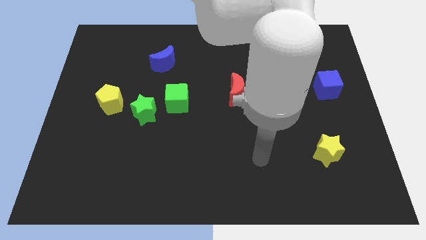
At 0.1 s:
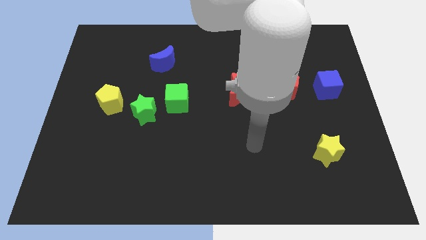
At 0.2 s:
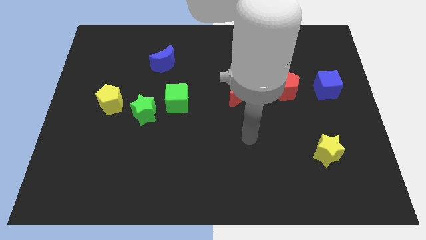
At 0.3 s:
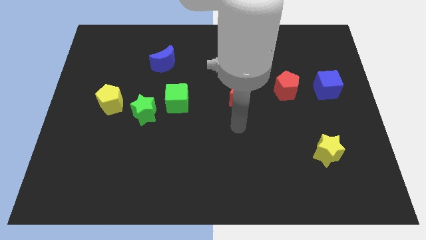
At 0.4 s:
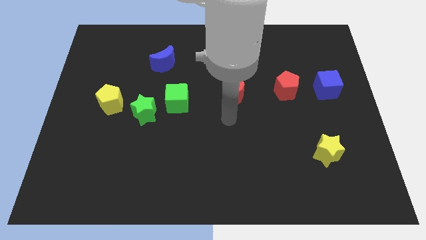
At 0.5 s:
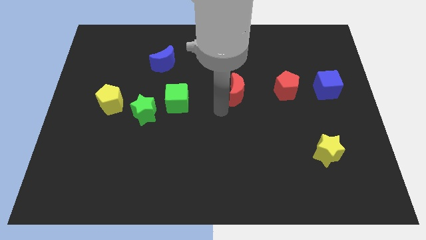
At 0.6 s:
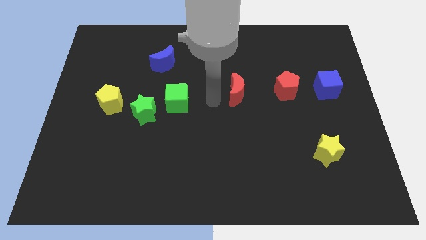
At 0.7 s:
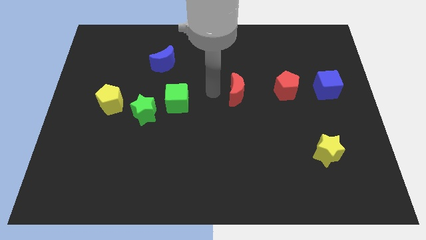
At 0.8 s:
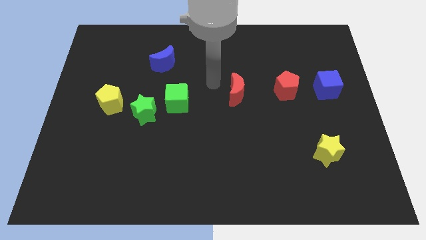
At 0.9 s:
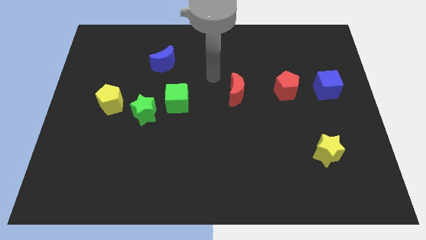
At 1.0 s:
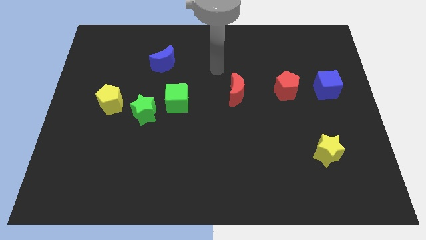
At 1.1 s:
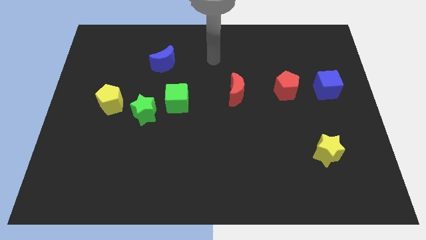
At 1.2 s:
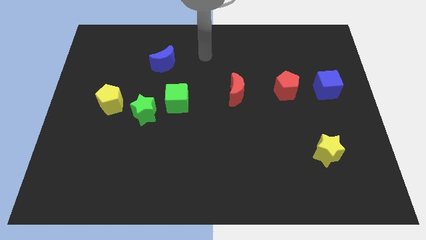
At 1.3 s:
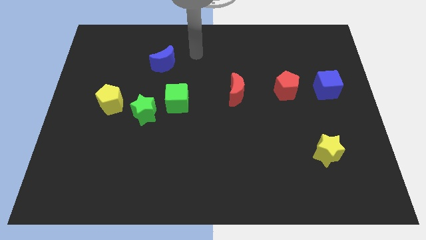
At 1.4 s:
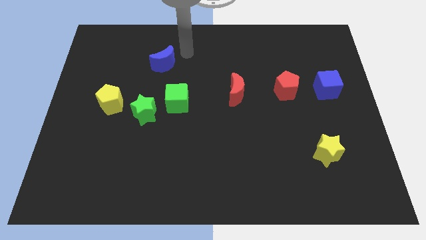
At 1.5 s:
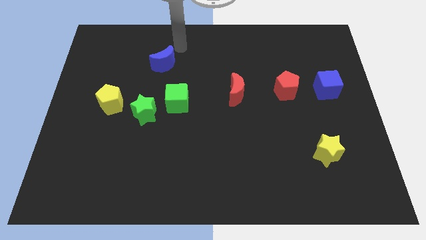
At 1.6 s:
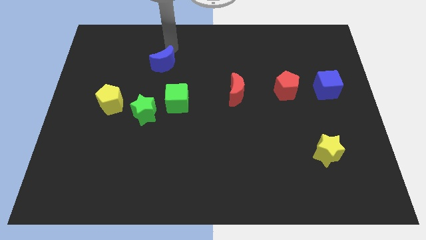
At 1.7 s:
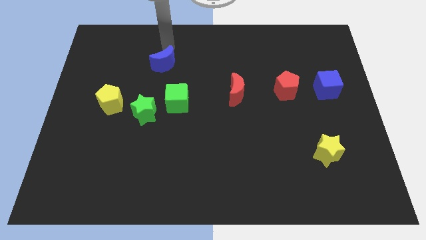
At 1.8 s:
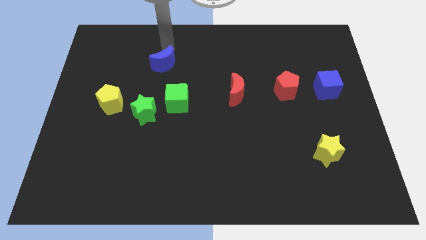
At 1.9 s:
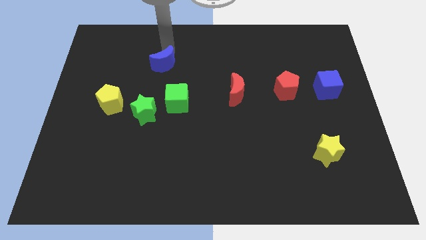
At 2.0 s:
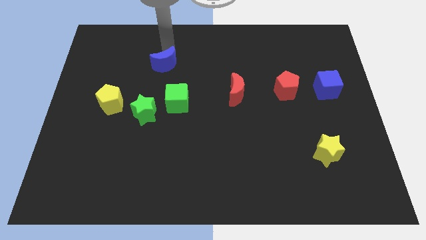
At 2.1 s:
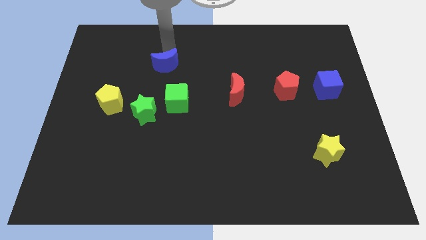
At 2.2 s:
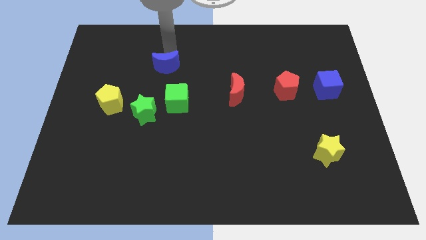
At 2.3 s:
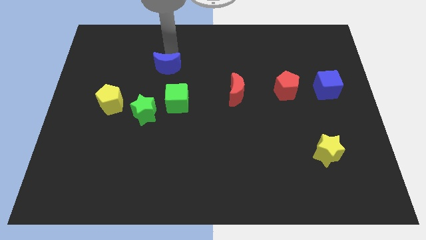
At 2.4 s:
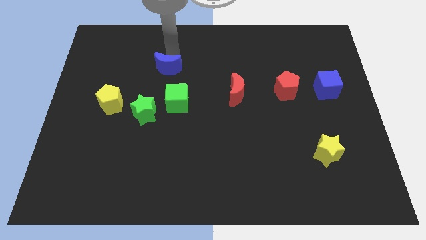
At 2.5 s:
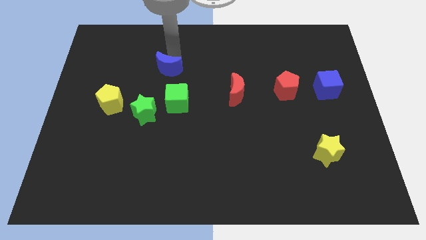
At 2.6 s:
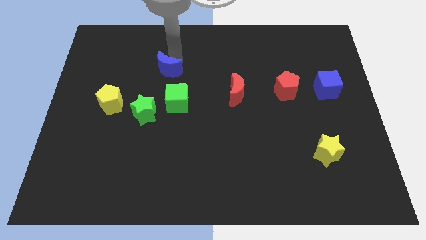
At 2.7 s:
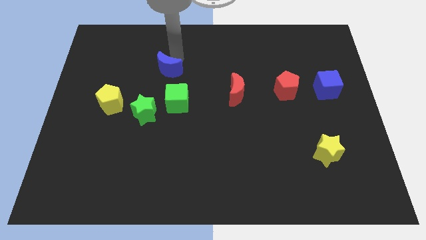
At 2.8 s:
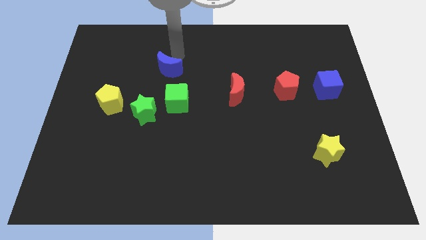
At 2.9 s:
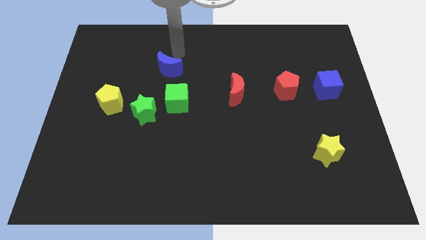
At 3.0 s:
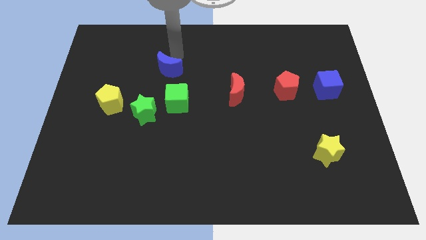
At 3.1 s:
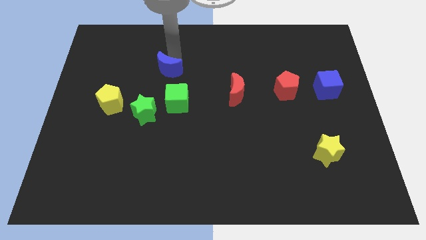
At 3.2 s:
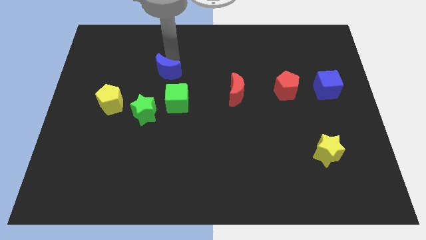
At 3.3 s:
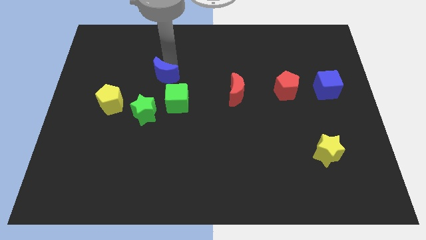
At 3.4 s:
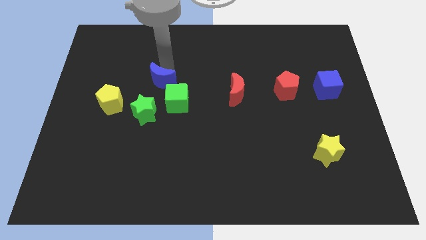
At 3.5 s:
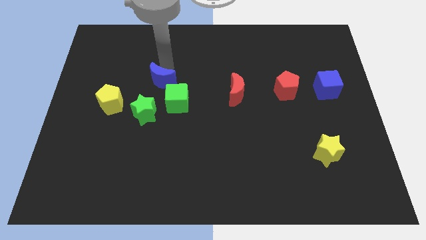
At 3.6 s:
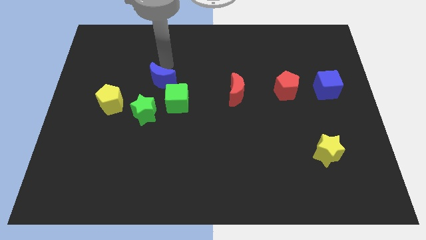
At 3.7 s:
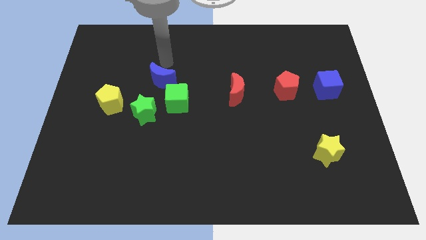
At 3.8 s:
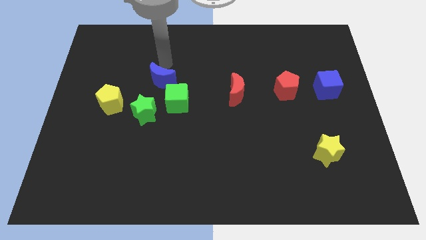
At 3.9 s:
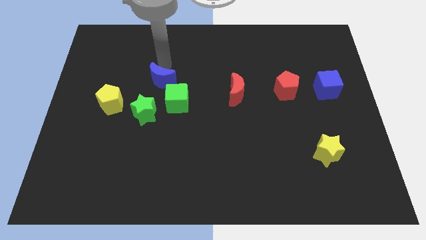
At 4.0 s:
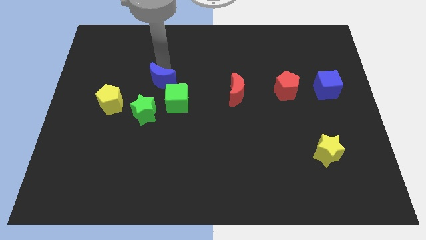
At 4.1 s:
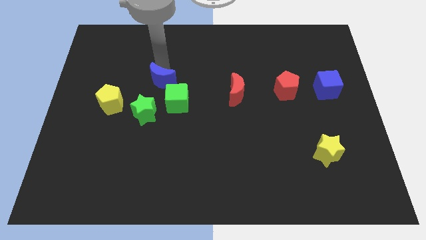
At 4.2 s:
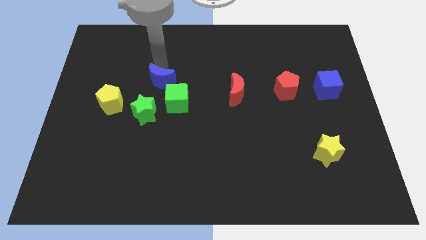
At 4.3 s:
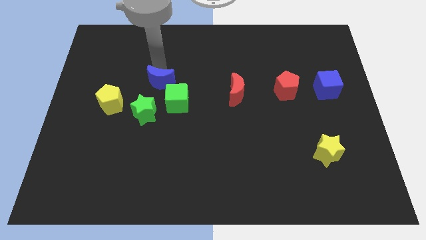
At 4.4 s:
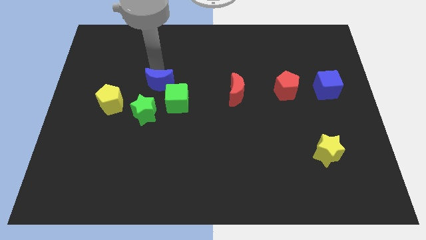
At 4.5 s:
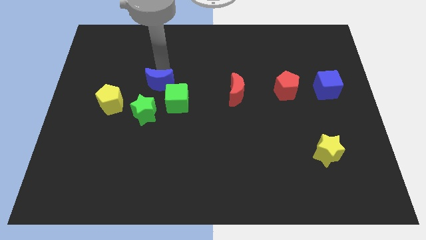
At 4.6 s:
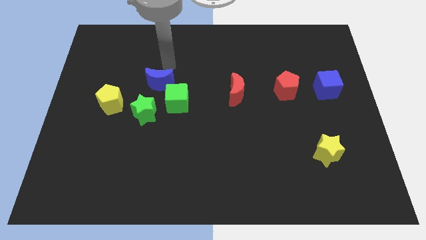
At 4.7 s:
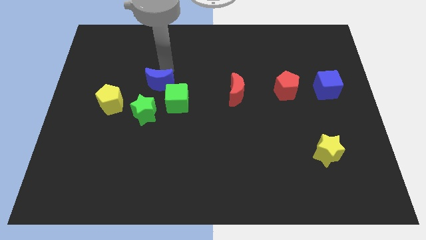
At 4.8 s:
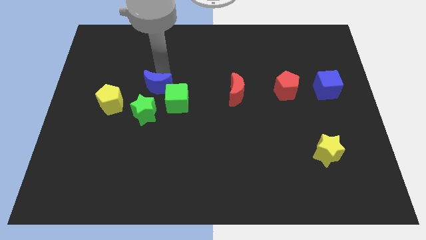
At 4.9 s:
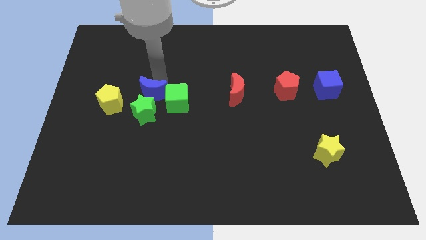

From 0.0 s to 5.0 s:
push the blue moon towards the green star

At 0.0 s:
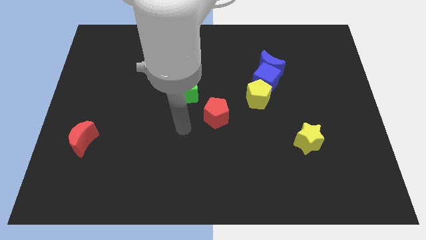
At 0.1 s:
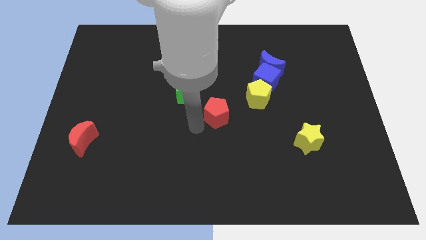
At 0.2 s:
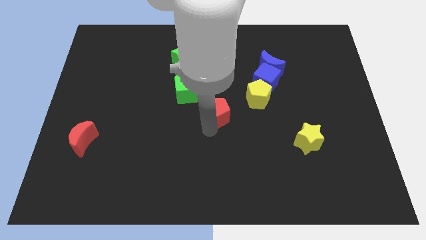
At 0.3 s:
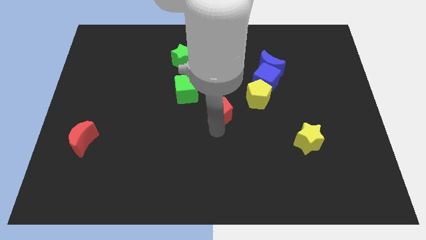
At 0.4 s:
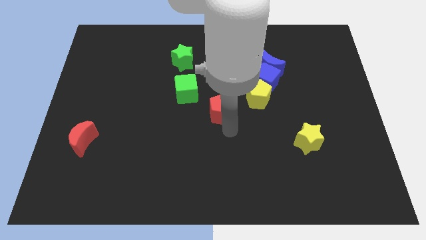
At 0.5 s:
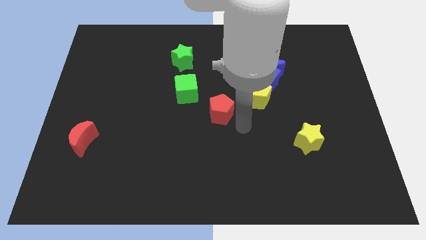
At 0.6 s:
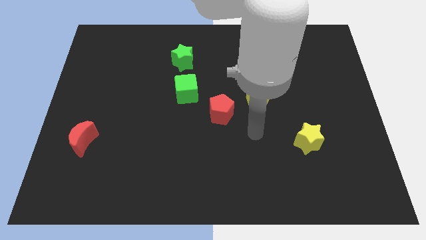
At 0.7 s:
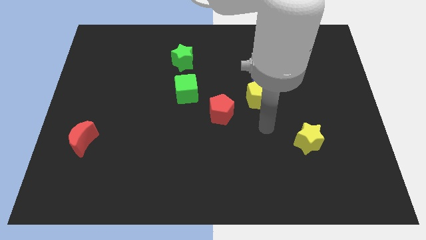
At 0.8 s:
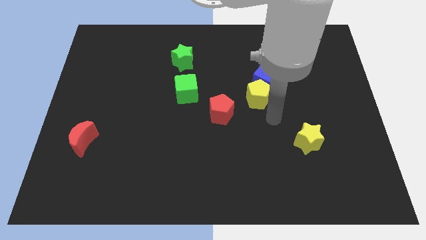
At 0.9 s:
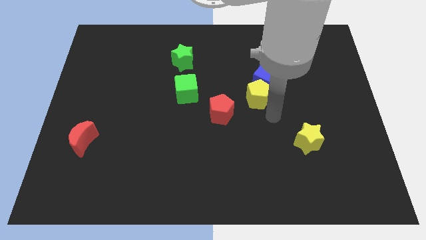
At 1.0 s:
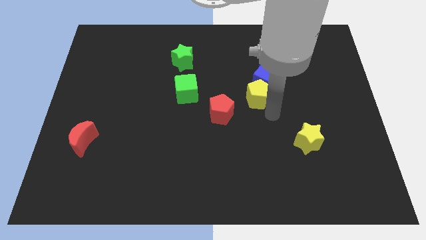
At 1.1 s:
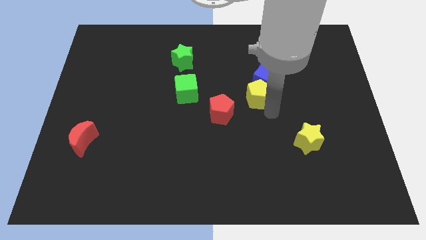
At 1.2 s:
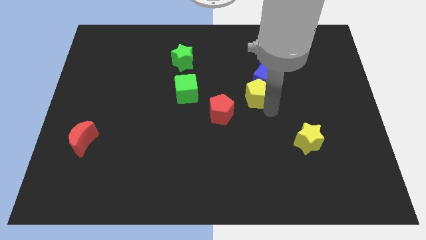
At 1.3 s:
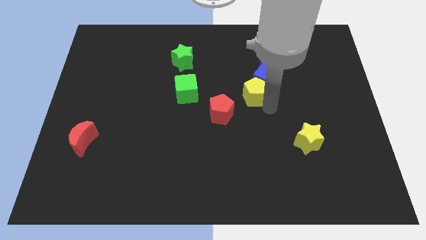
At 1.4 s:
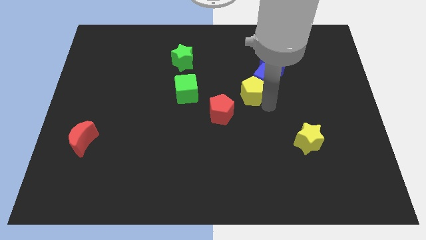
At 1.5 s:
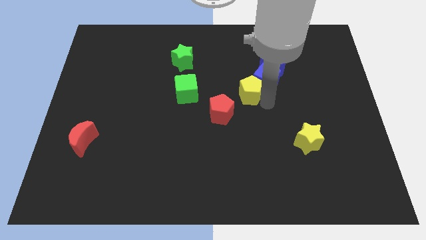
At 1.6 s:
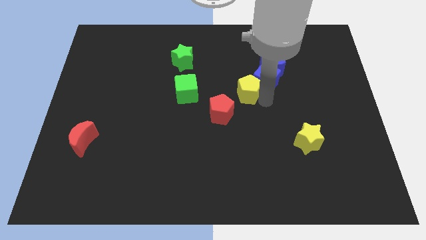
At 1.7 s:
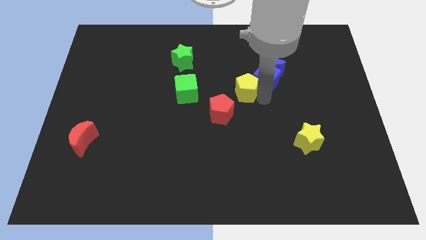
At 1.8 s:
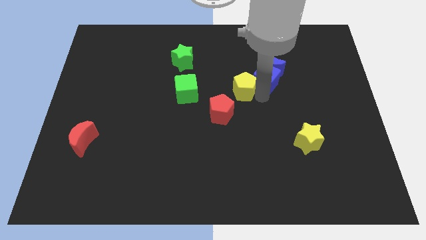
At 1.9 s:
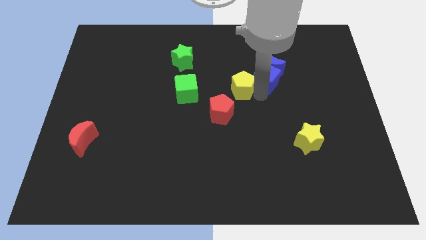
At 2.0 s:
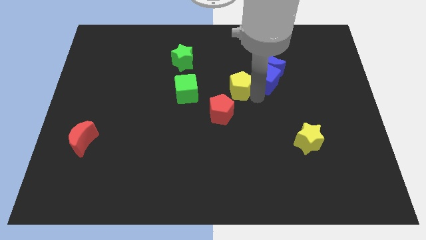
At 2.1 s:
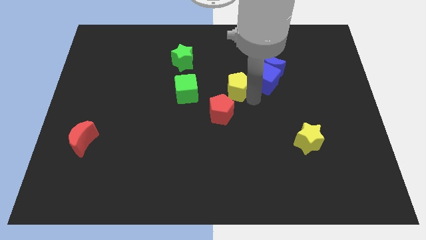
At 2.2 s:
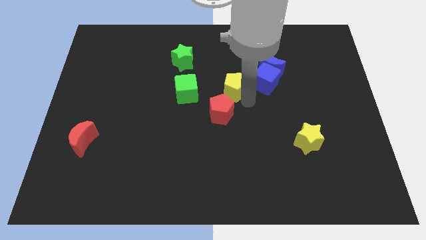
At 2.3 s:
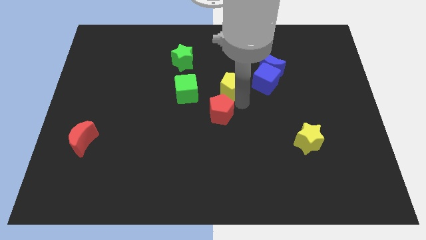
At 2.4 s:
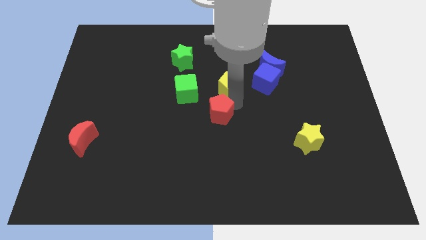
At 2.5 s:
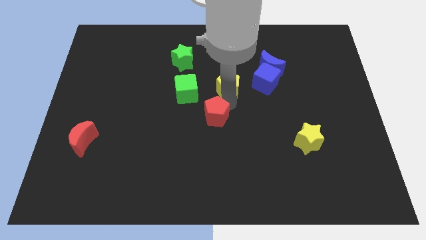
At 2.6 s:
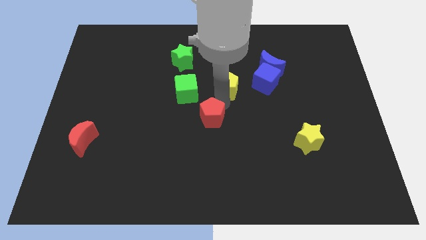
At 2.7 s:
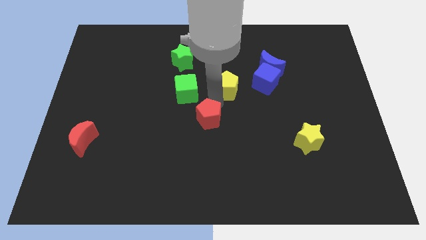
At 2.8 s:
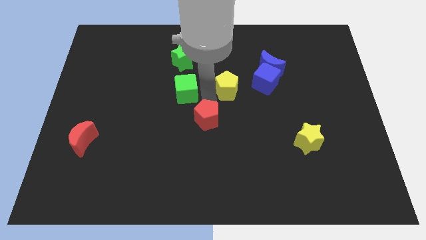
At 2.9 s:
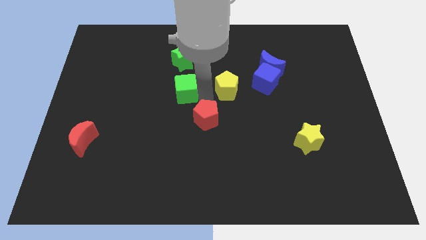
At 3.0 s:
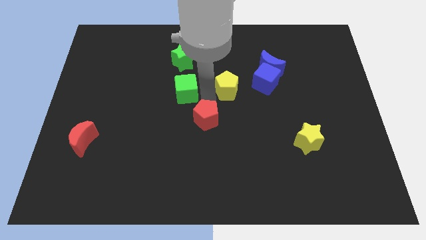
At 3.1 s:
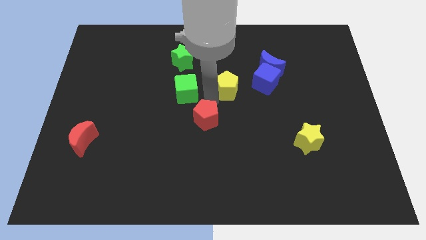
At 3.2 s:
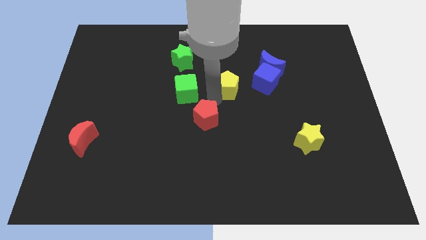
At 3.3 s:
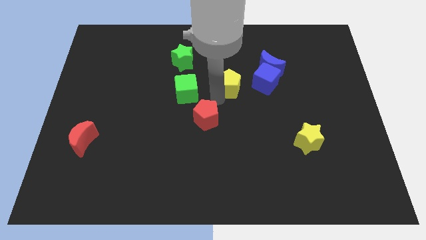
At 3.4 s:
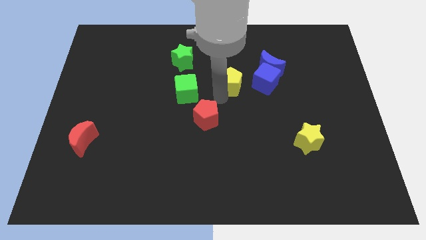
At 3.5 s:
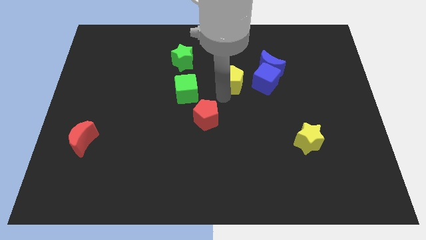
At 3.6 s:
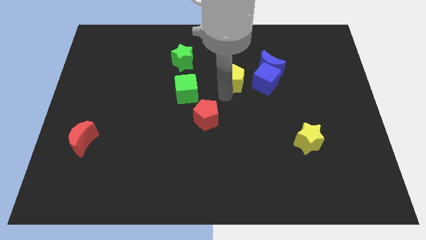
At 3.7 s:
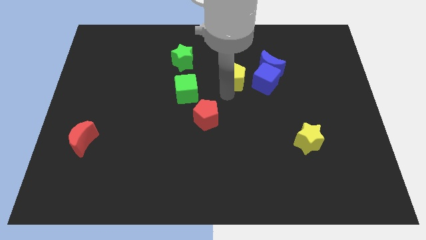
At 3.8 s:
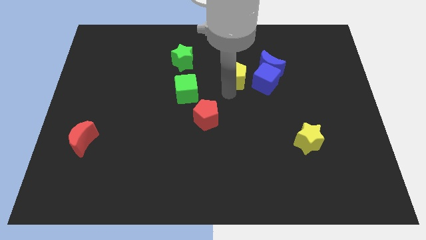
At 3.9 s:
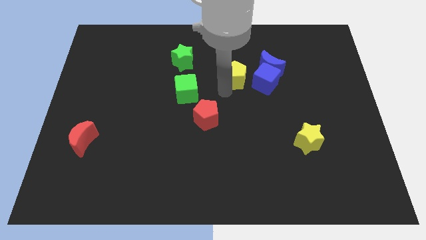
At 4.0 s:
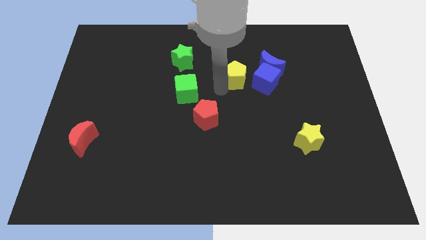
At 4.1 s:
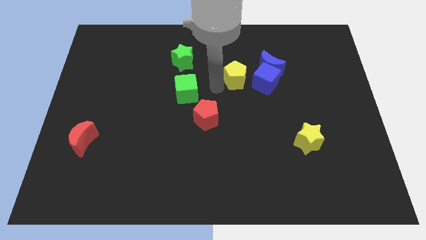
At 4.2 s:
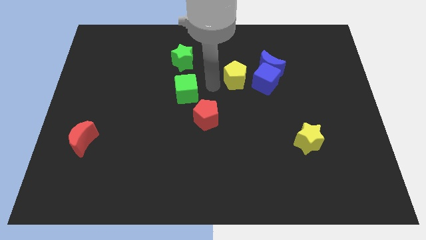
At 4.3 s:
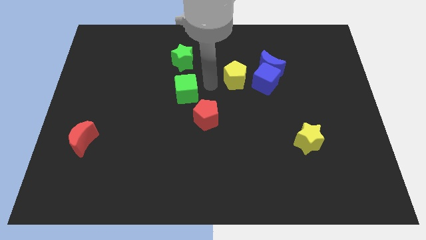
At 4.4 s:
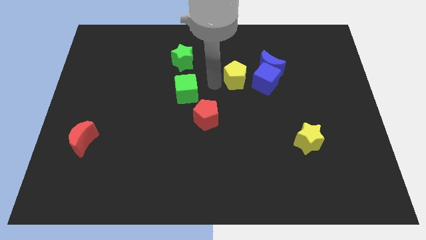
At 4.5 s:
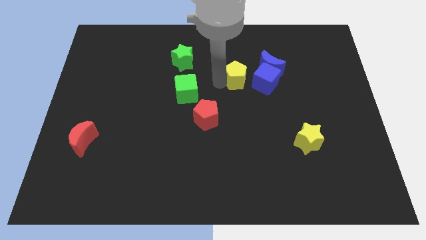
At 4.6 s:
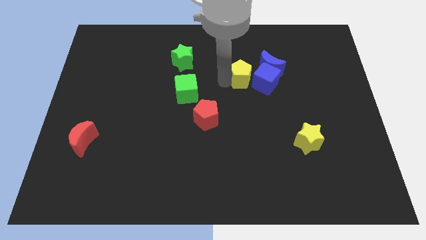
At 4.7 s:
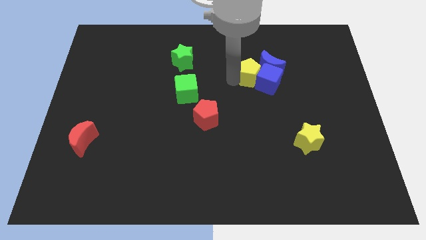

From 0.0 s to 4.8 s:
put the yellow pentagon to the blue moon
